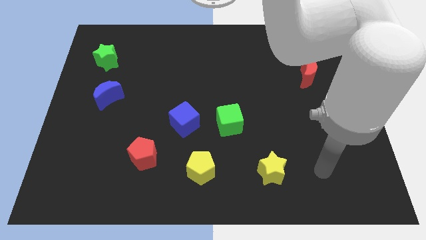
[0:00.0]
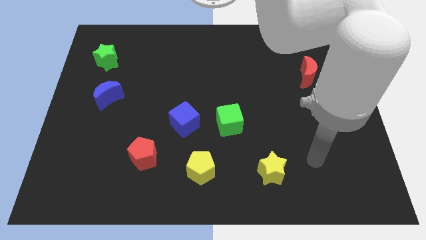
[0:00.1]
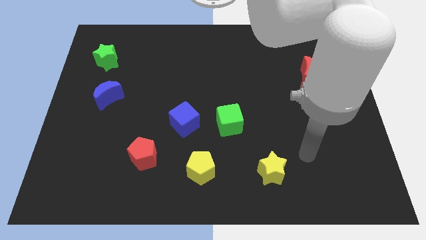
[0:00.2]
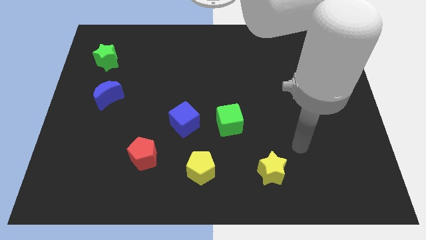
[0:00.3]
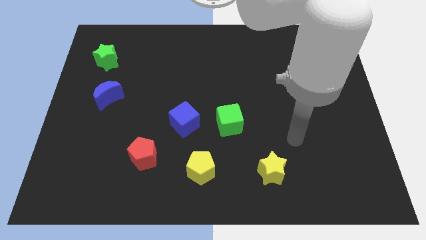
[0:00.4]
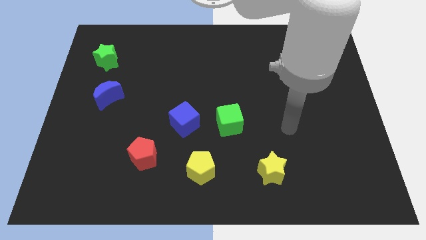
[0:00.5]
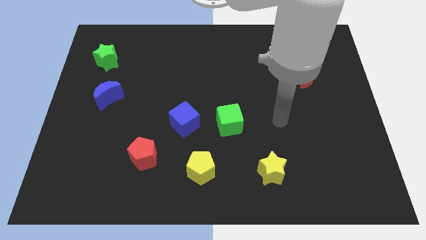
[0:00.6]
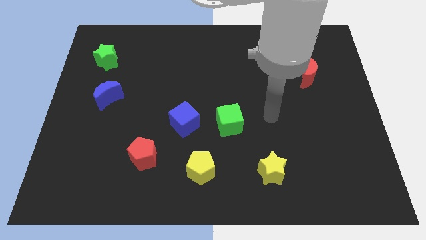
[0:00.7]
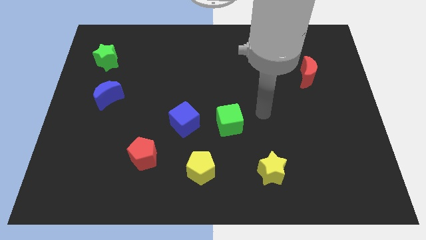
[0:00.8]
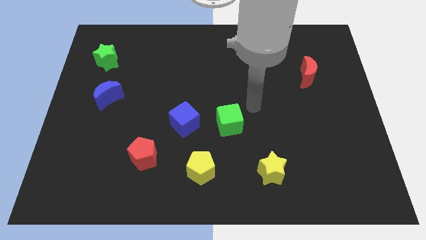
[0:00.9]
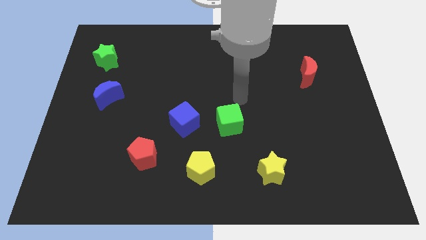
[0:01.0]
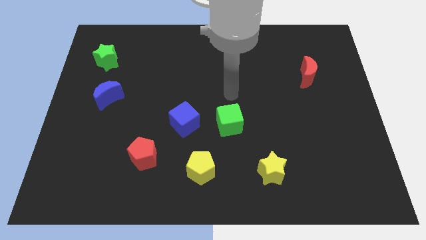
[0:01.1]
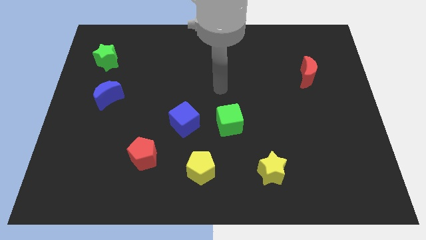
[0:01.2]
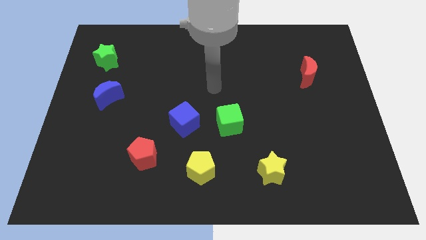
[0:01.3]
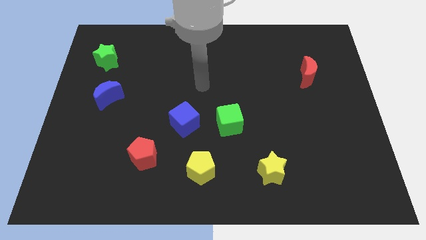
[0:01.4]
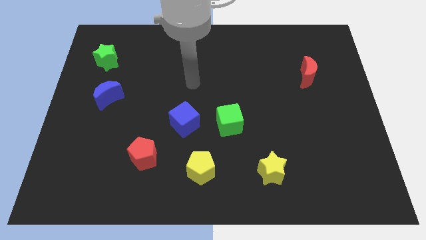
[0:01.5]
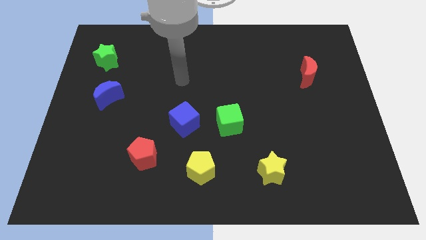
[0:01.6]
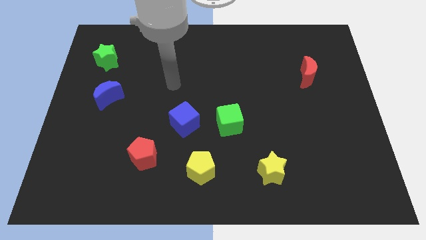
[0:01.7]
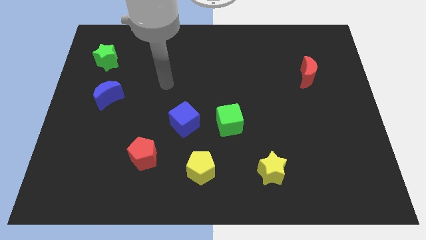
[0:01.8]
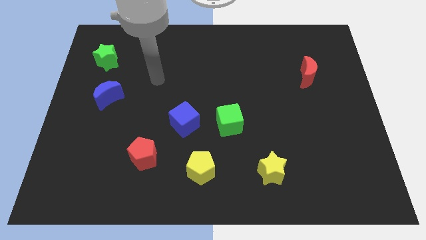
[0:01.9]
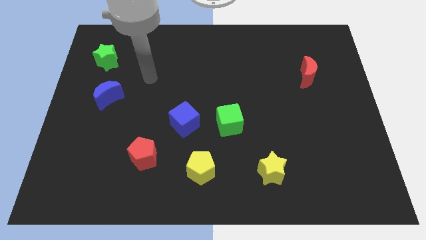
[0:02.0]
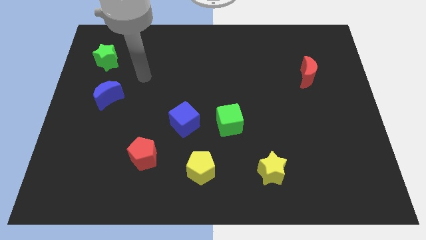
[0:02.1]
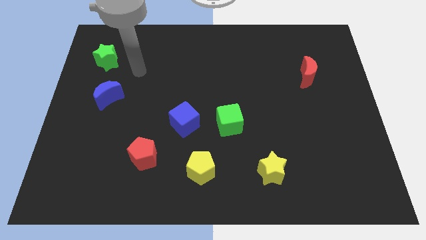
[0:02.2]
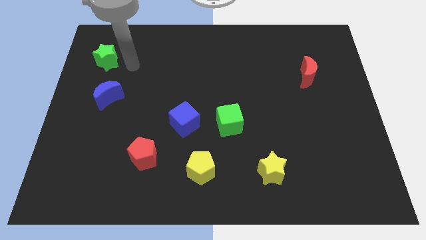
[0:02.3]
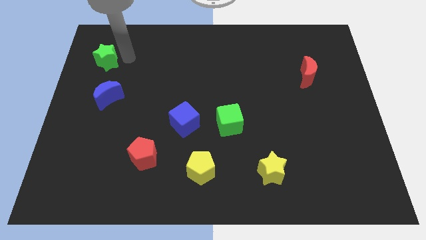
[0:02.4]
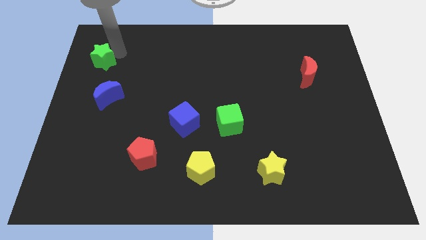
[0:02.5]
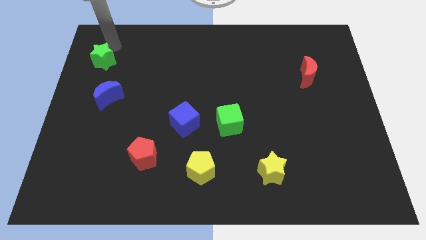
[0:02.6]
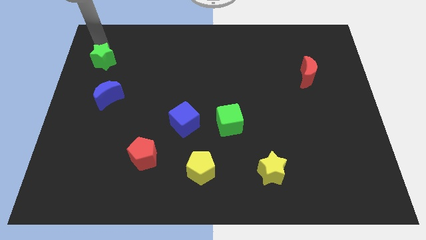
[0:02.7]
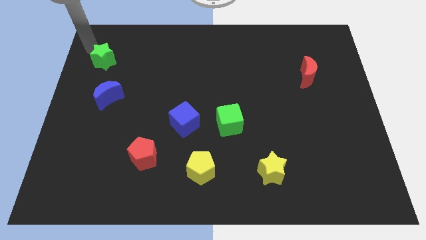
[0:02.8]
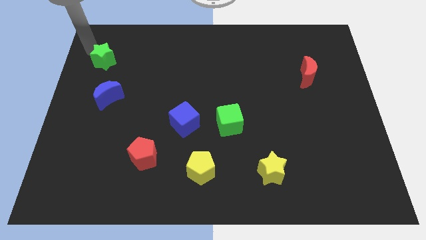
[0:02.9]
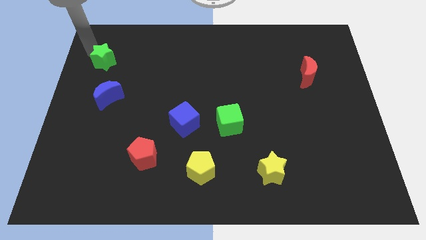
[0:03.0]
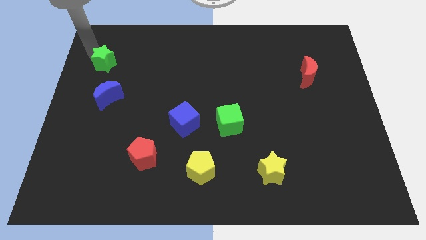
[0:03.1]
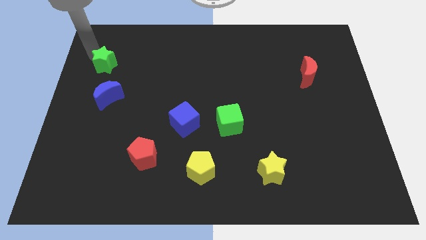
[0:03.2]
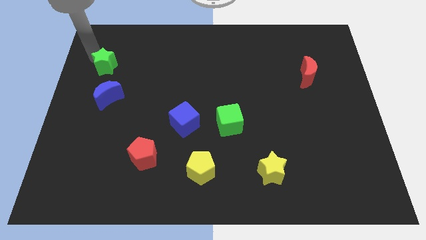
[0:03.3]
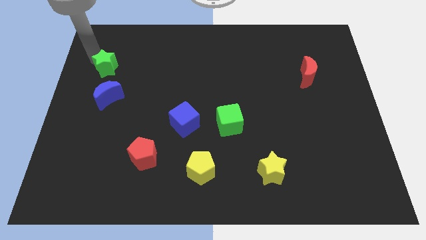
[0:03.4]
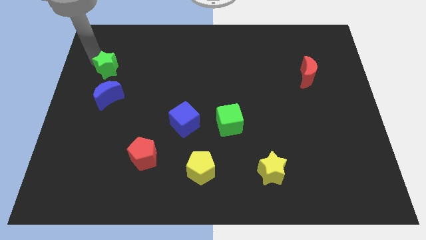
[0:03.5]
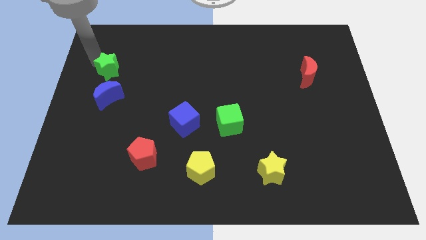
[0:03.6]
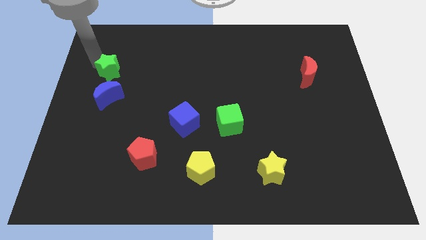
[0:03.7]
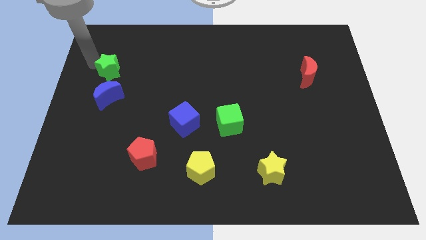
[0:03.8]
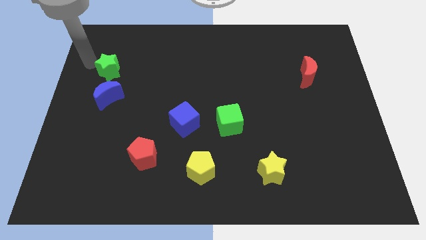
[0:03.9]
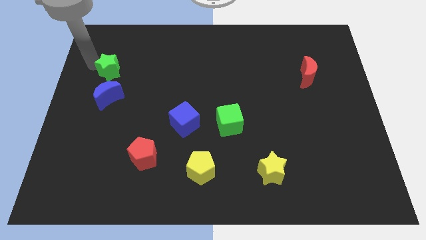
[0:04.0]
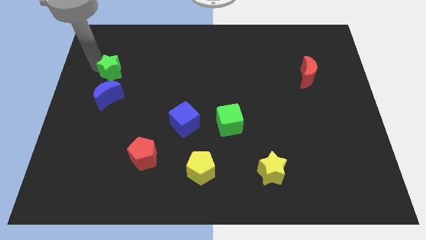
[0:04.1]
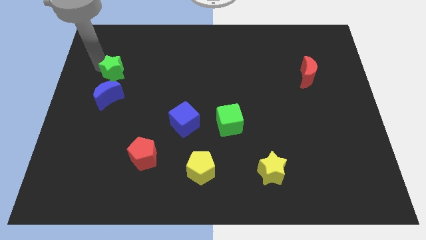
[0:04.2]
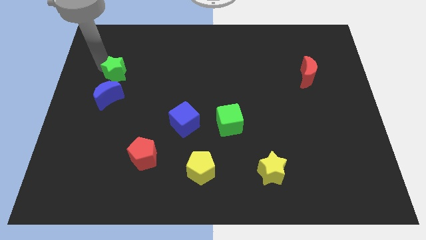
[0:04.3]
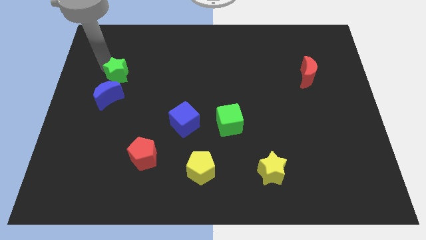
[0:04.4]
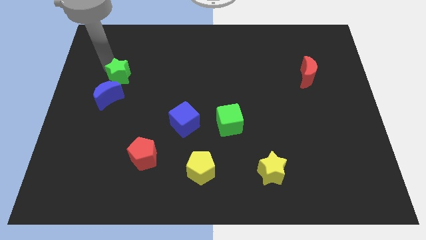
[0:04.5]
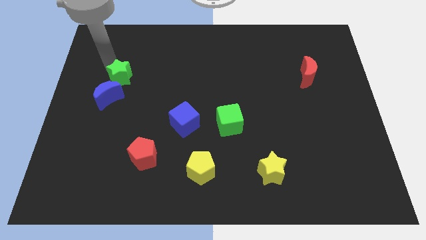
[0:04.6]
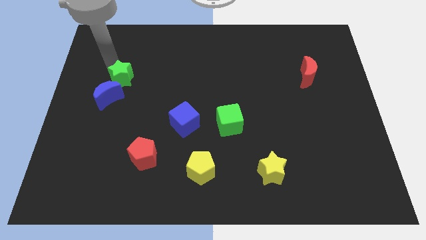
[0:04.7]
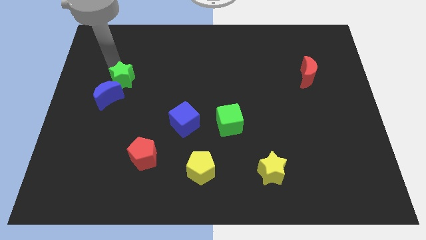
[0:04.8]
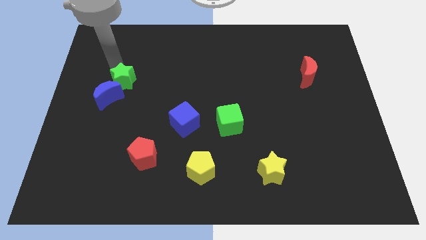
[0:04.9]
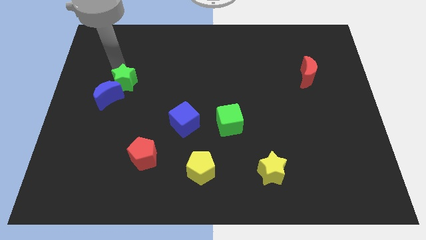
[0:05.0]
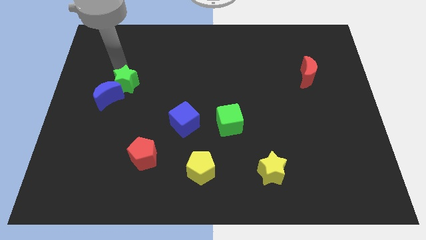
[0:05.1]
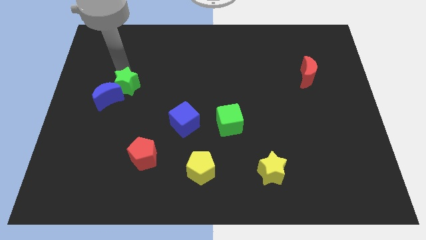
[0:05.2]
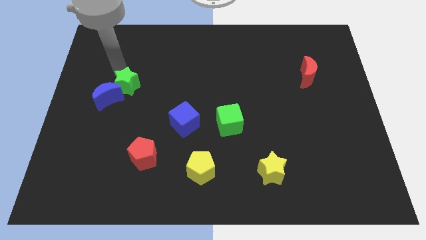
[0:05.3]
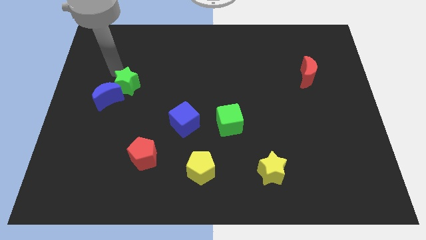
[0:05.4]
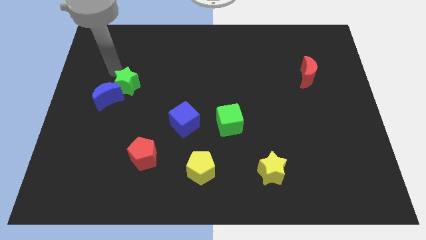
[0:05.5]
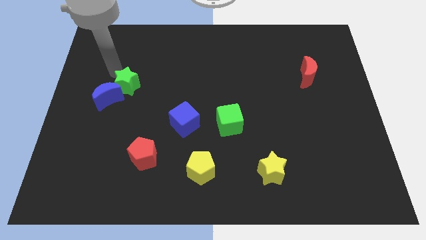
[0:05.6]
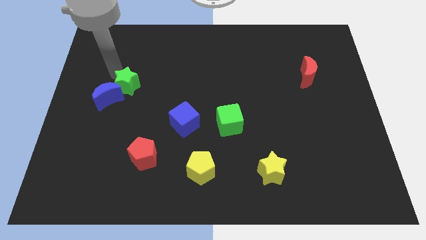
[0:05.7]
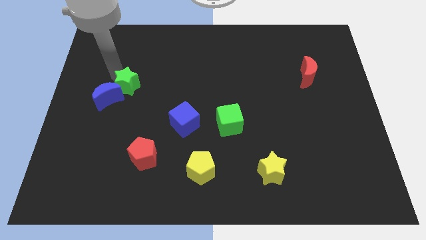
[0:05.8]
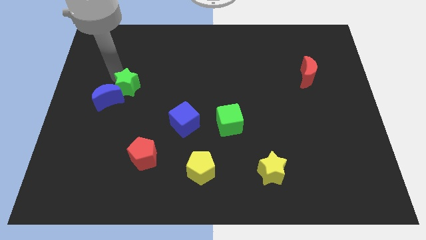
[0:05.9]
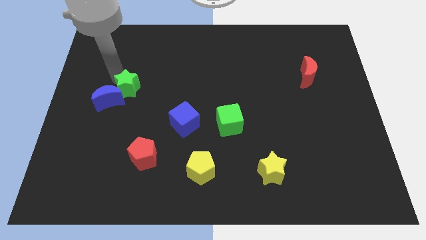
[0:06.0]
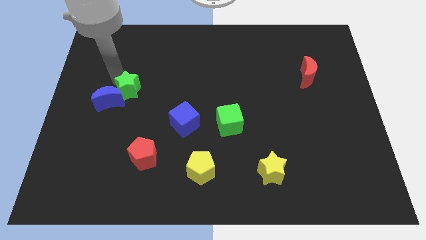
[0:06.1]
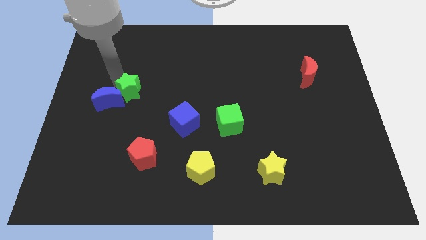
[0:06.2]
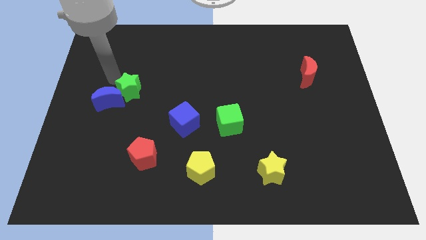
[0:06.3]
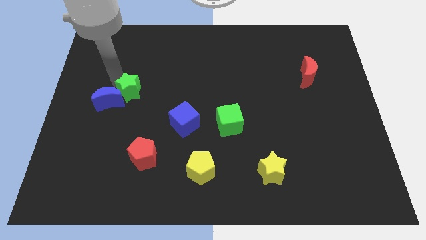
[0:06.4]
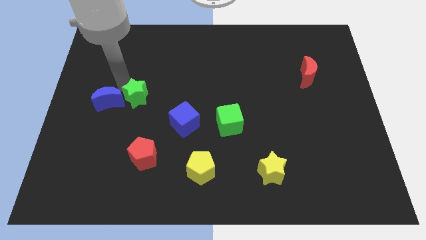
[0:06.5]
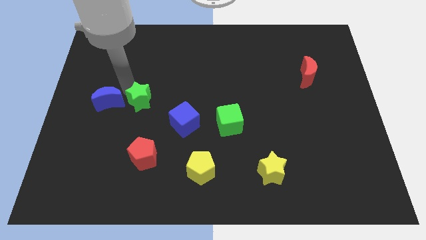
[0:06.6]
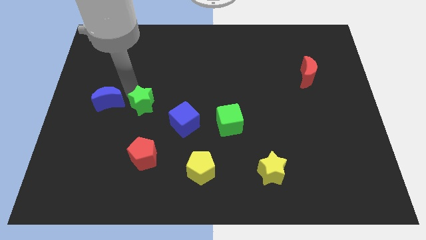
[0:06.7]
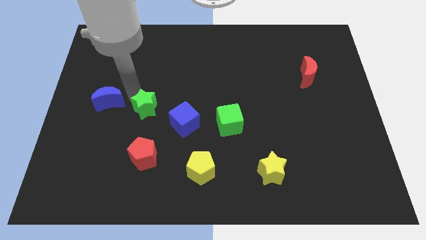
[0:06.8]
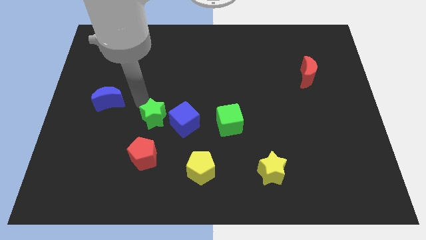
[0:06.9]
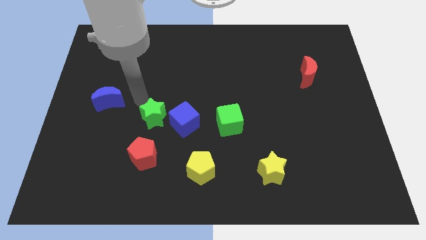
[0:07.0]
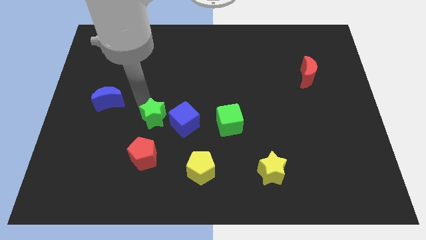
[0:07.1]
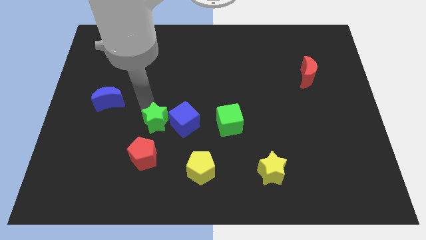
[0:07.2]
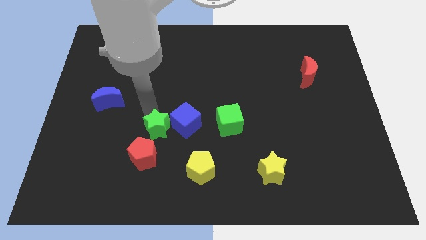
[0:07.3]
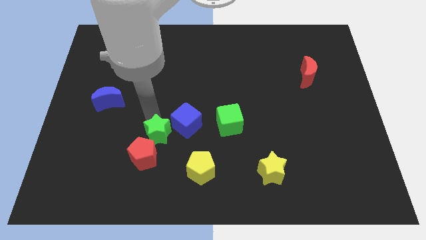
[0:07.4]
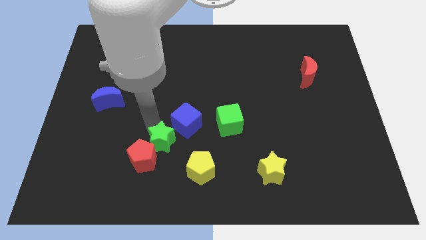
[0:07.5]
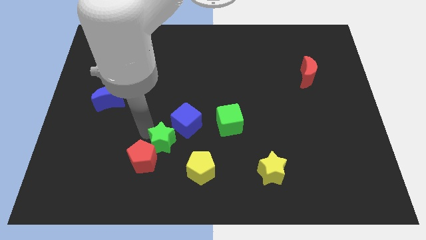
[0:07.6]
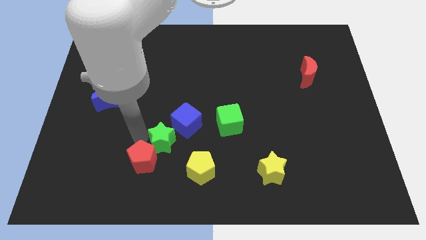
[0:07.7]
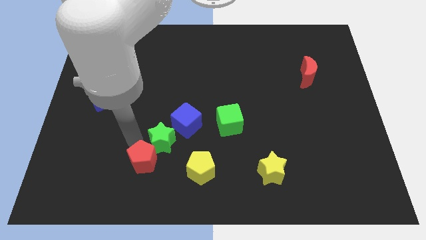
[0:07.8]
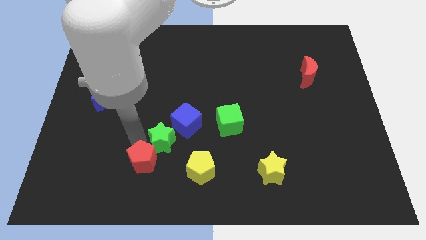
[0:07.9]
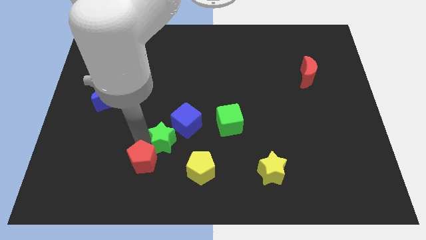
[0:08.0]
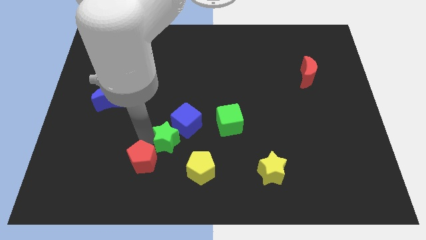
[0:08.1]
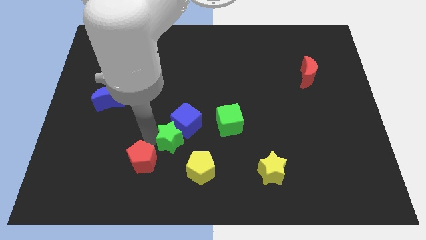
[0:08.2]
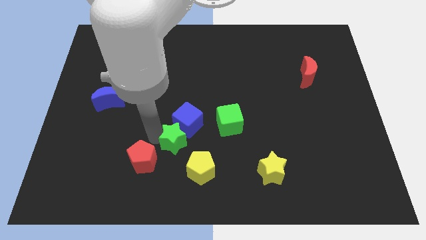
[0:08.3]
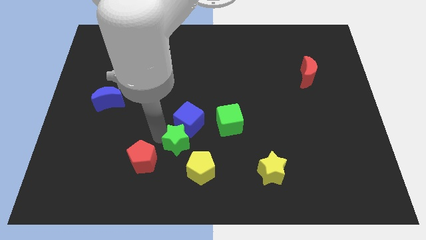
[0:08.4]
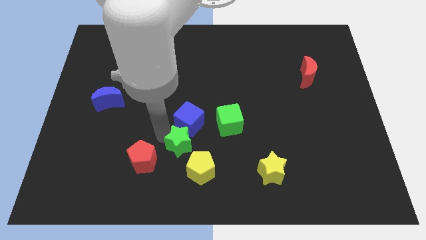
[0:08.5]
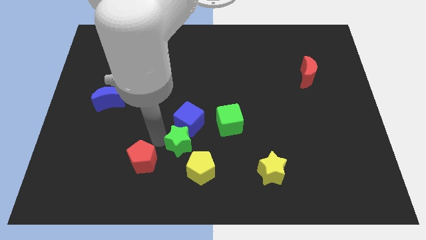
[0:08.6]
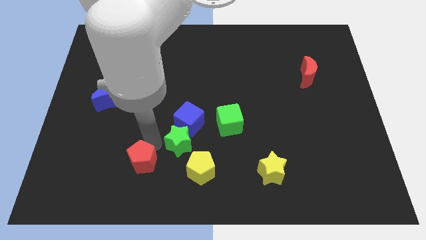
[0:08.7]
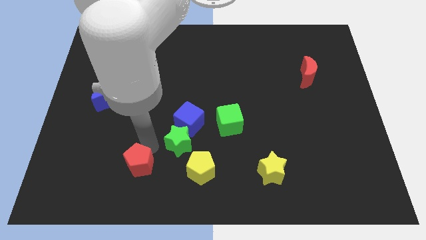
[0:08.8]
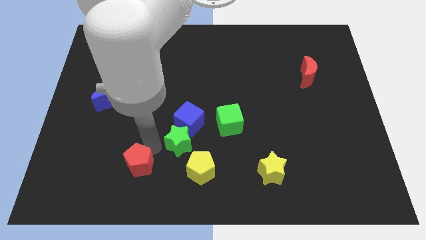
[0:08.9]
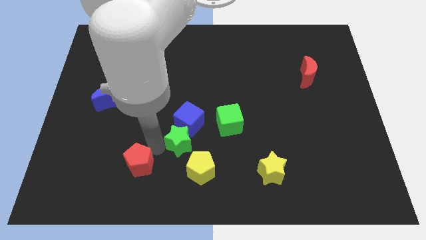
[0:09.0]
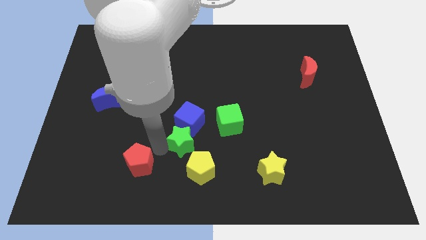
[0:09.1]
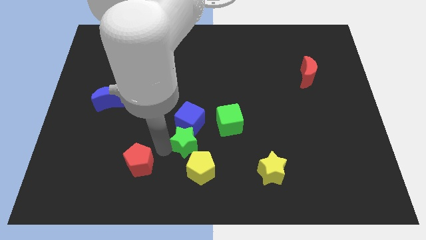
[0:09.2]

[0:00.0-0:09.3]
put the green star to the bottom right of the blue cube
